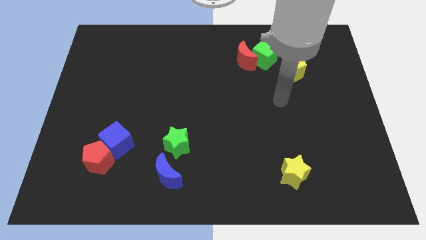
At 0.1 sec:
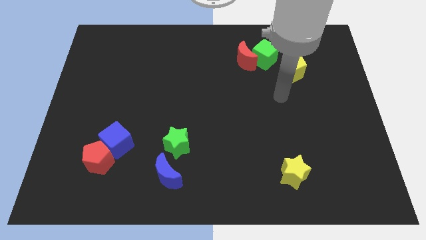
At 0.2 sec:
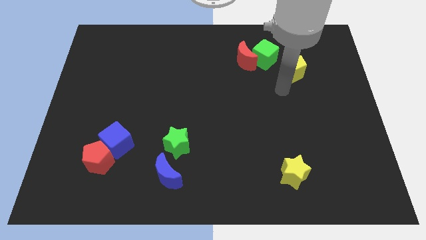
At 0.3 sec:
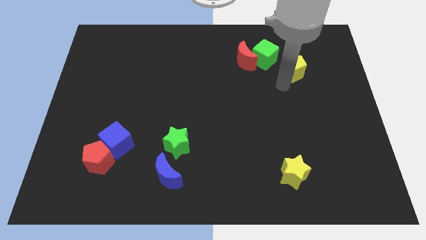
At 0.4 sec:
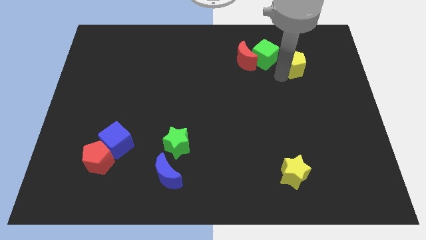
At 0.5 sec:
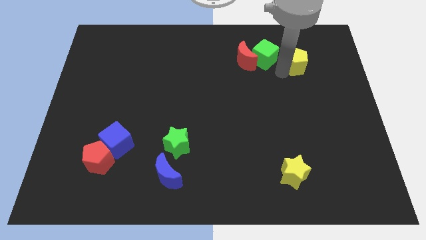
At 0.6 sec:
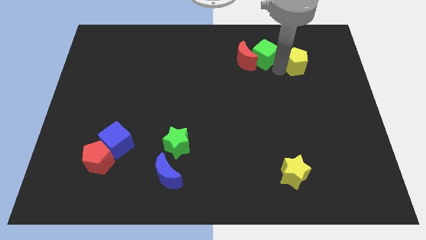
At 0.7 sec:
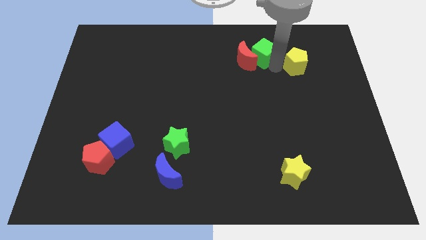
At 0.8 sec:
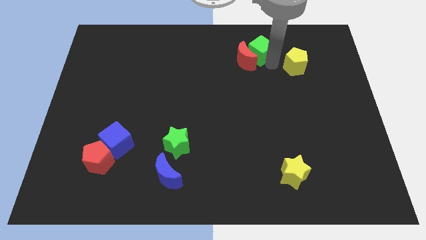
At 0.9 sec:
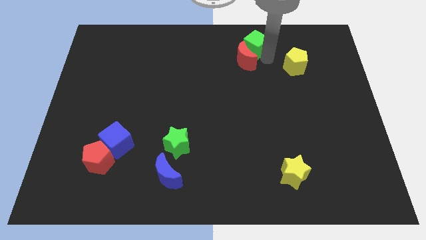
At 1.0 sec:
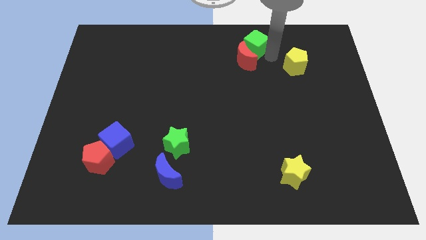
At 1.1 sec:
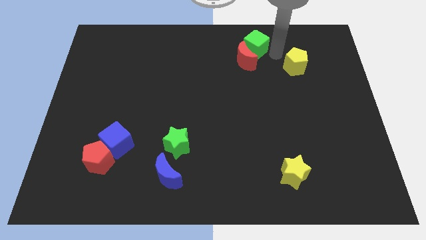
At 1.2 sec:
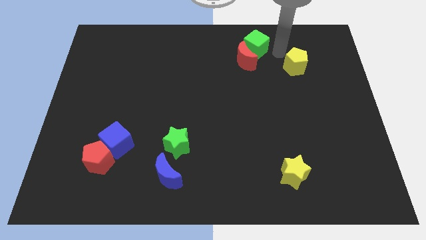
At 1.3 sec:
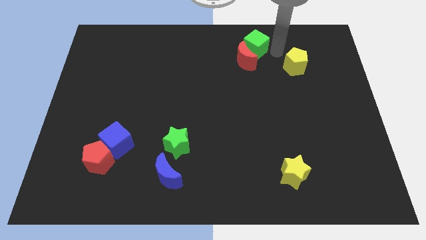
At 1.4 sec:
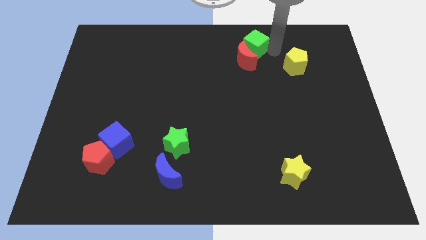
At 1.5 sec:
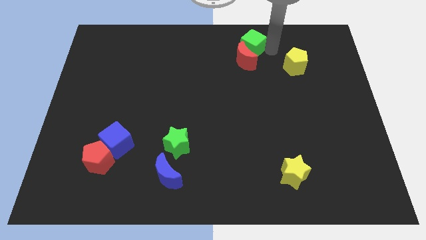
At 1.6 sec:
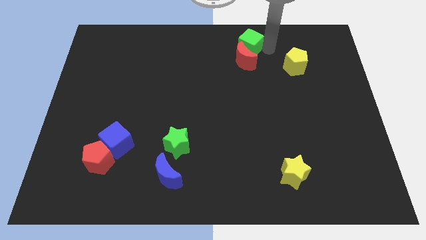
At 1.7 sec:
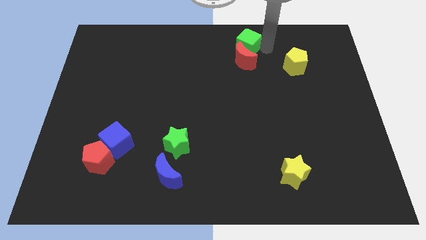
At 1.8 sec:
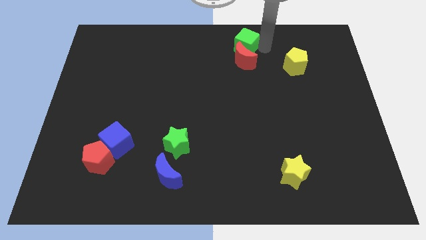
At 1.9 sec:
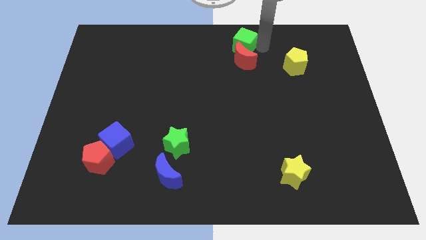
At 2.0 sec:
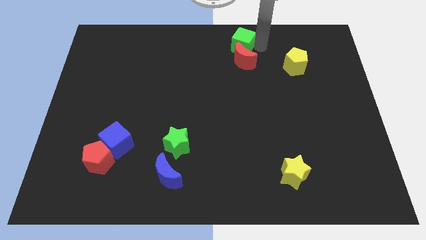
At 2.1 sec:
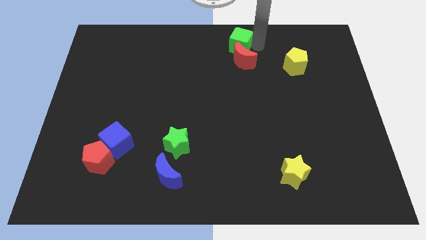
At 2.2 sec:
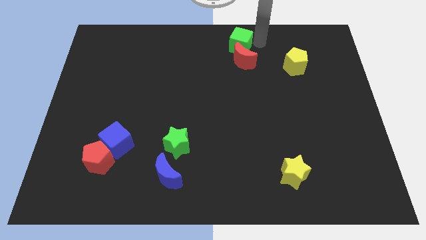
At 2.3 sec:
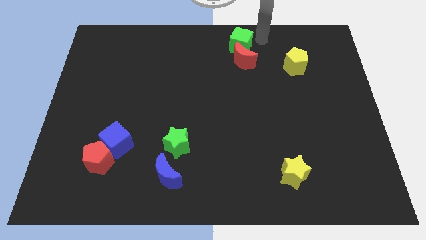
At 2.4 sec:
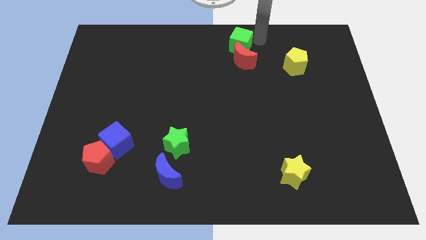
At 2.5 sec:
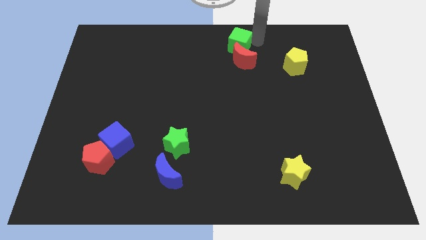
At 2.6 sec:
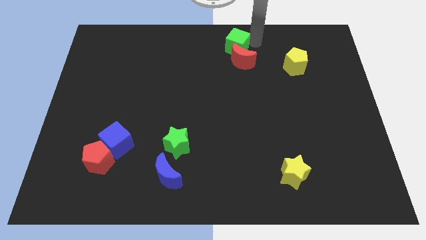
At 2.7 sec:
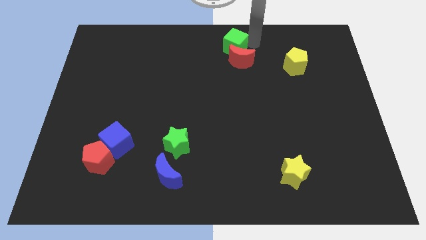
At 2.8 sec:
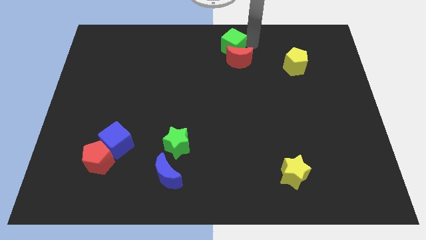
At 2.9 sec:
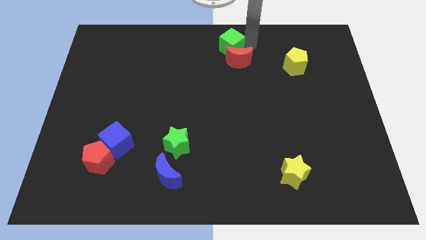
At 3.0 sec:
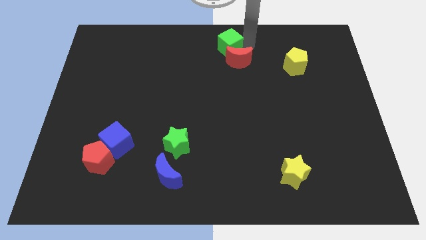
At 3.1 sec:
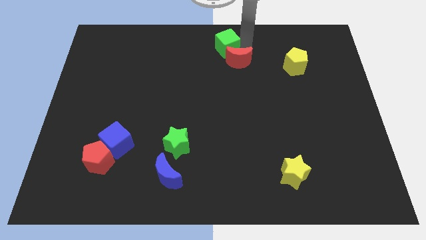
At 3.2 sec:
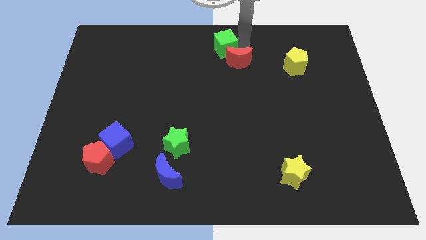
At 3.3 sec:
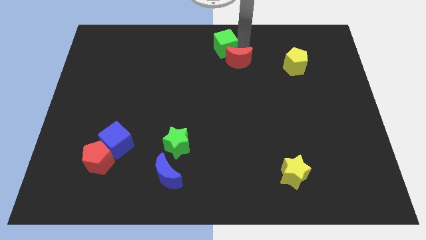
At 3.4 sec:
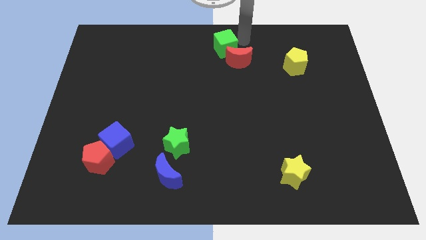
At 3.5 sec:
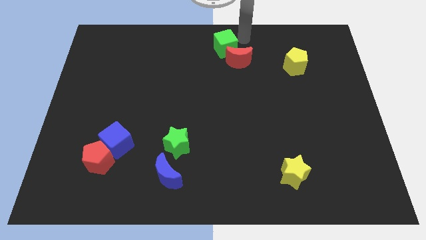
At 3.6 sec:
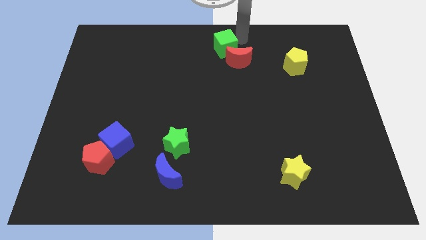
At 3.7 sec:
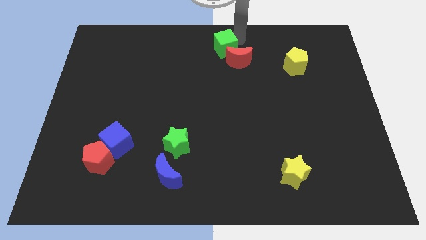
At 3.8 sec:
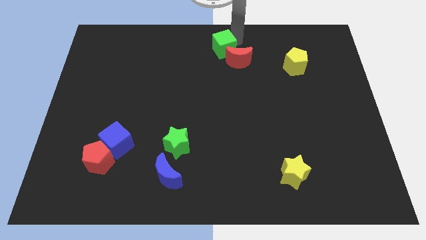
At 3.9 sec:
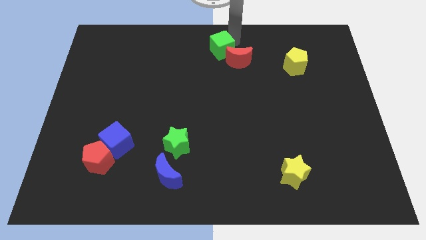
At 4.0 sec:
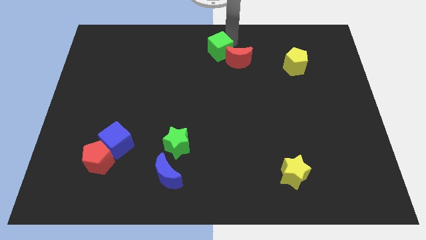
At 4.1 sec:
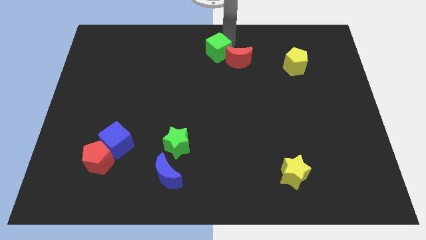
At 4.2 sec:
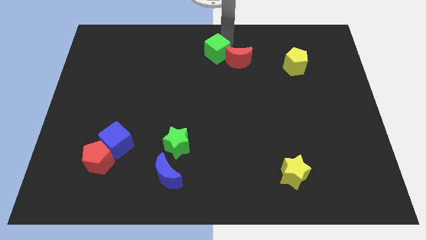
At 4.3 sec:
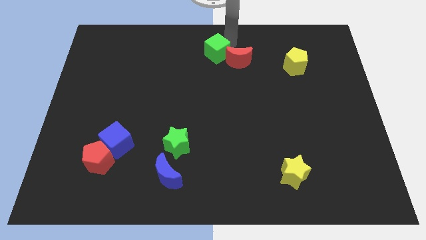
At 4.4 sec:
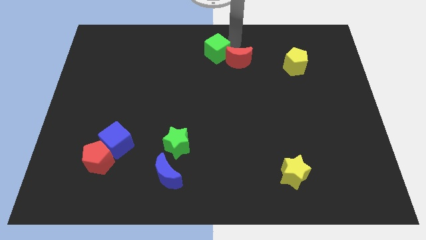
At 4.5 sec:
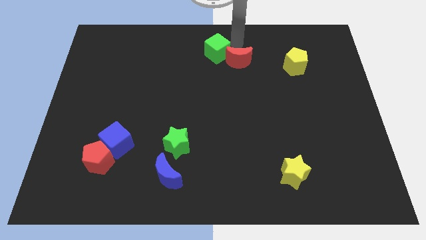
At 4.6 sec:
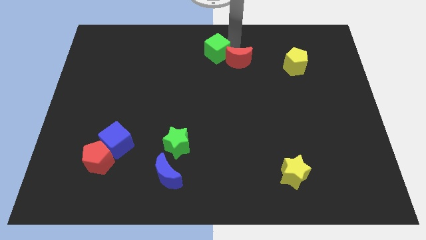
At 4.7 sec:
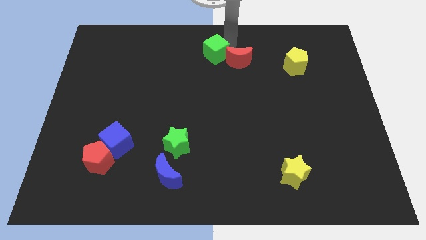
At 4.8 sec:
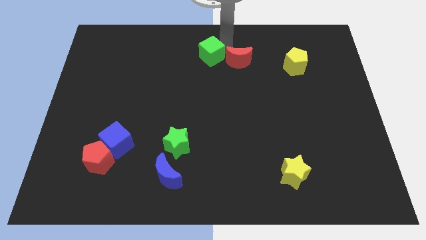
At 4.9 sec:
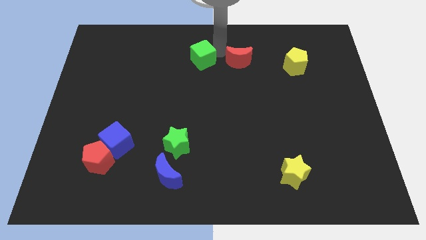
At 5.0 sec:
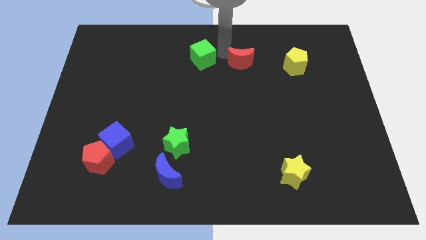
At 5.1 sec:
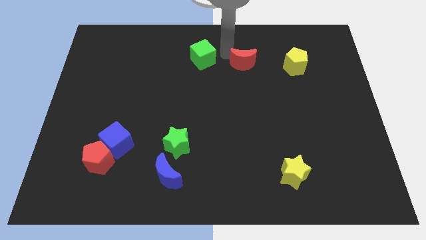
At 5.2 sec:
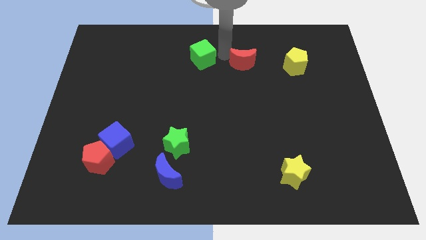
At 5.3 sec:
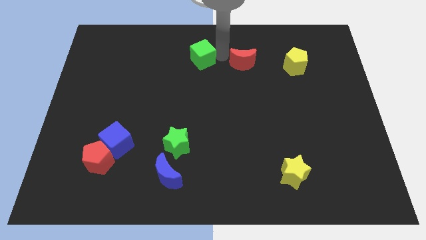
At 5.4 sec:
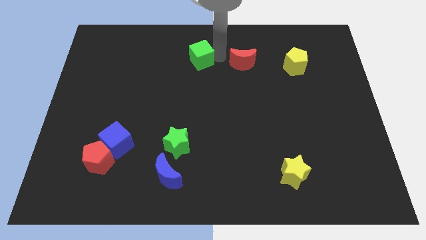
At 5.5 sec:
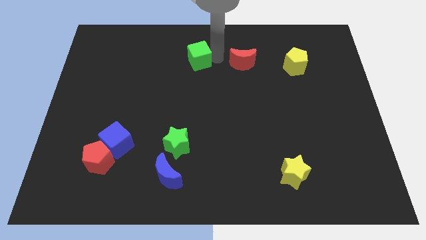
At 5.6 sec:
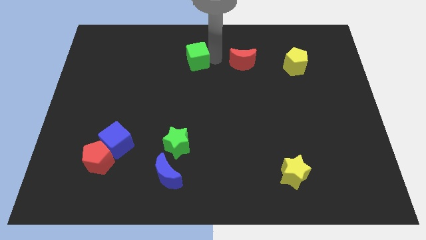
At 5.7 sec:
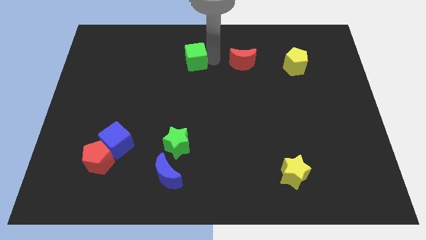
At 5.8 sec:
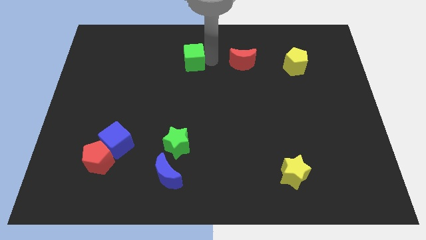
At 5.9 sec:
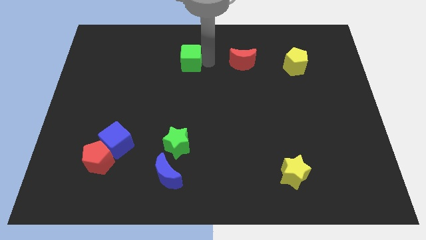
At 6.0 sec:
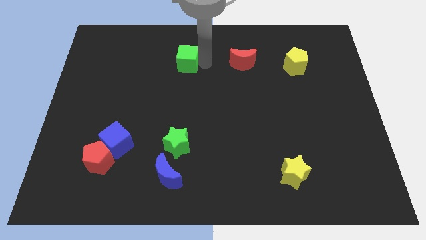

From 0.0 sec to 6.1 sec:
push the green cube to the left

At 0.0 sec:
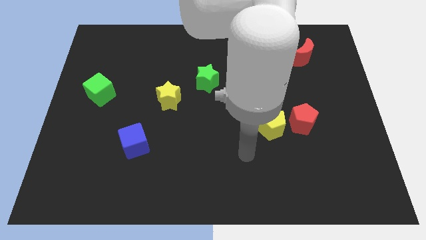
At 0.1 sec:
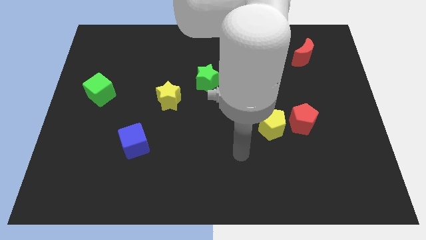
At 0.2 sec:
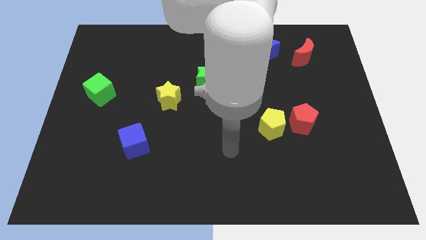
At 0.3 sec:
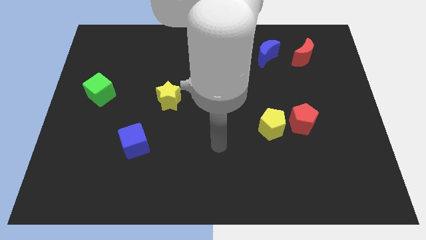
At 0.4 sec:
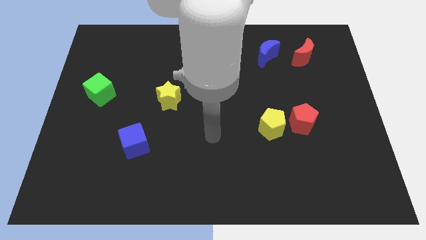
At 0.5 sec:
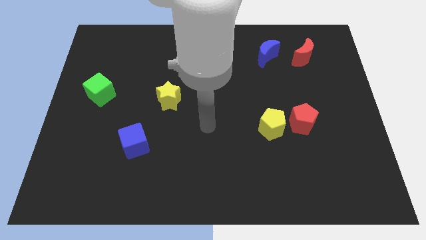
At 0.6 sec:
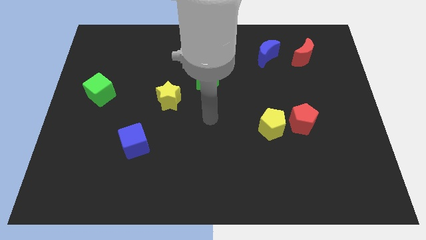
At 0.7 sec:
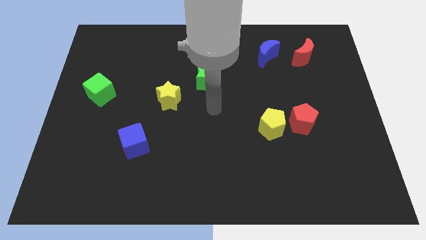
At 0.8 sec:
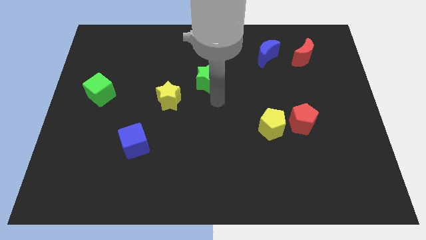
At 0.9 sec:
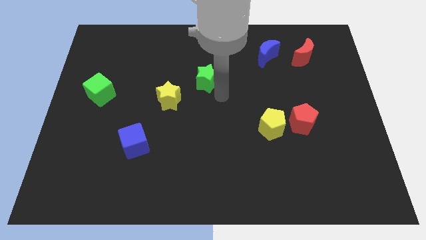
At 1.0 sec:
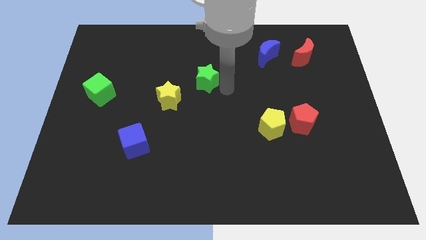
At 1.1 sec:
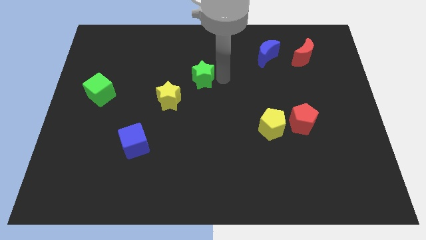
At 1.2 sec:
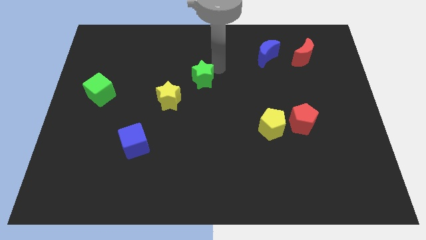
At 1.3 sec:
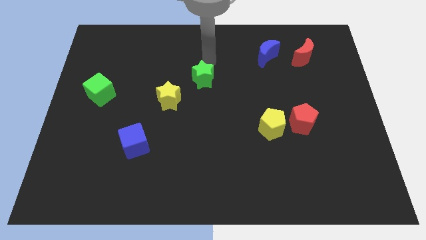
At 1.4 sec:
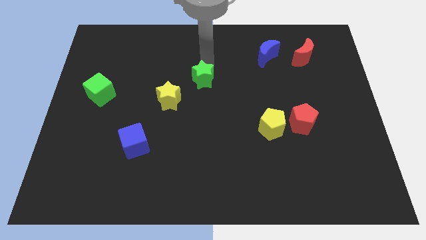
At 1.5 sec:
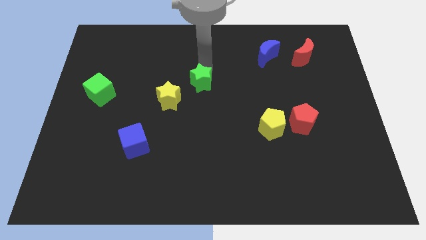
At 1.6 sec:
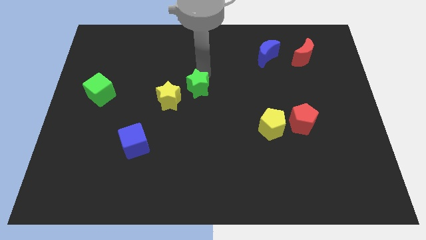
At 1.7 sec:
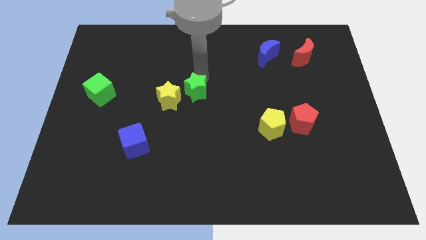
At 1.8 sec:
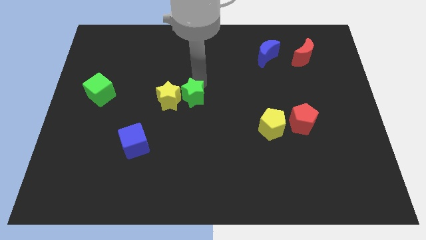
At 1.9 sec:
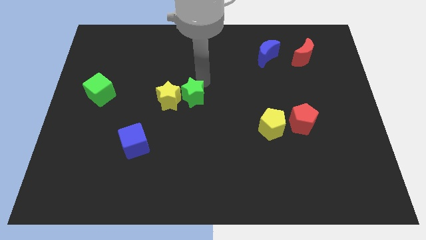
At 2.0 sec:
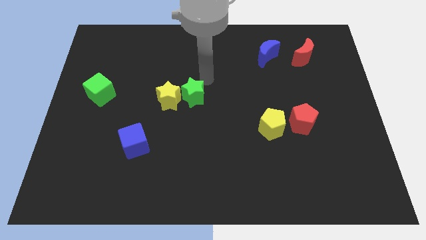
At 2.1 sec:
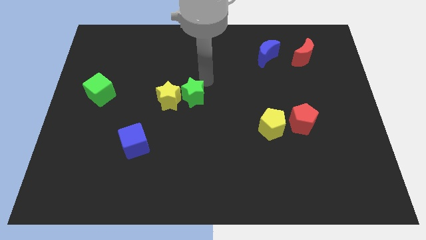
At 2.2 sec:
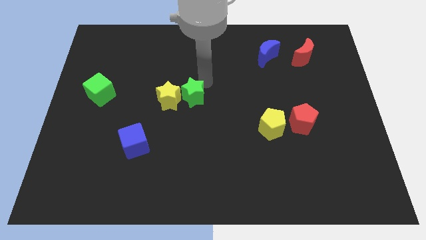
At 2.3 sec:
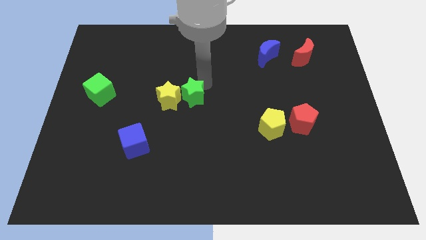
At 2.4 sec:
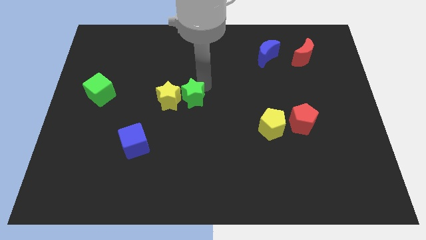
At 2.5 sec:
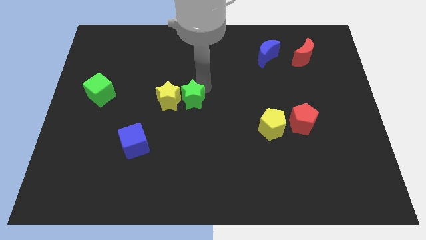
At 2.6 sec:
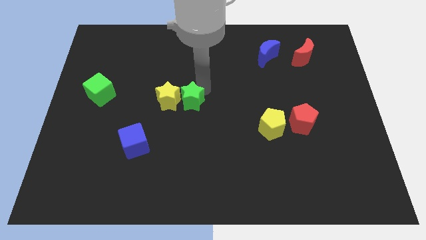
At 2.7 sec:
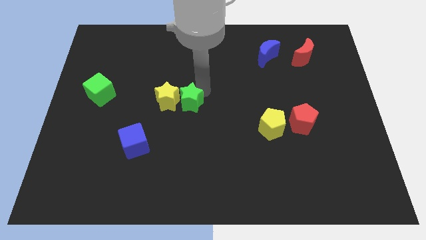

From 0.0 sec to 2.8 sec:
move the green star diagonally down and to the left a little
